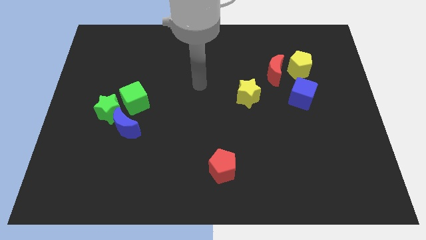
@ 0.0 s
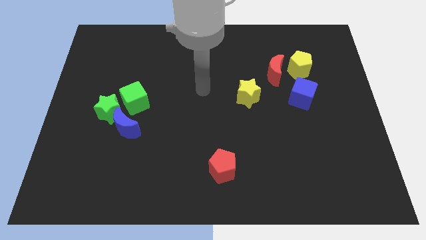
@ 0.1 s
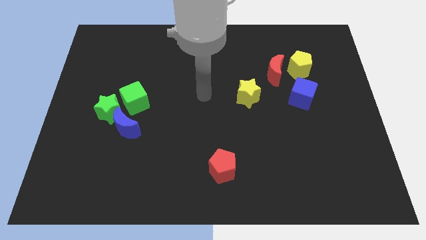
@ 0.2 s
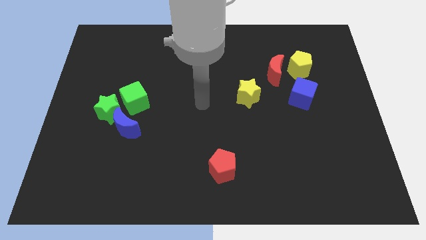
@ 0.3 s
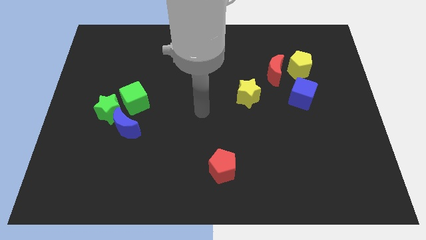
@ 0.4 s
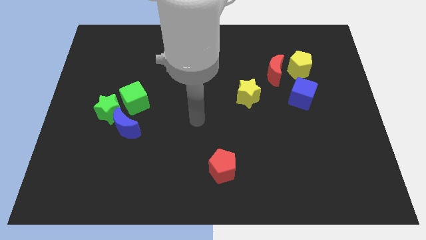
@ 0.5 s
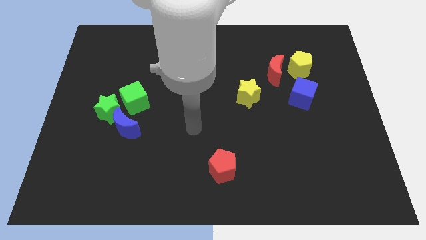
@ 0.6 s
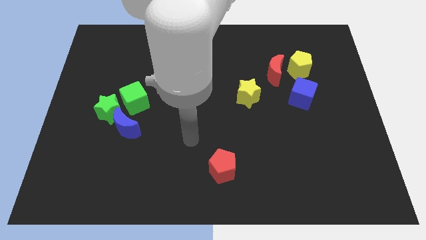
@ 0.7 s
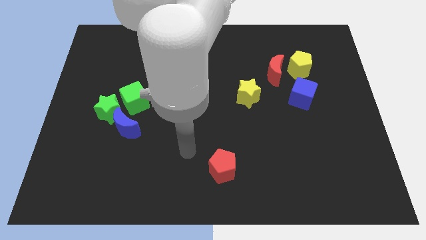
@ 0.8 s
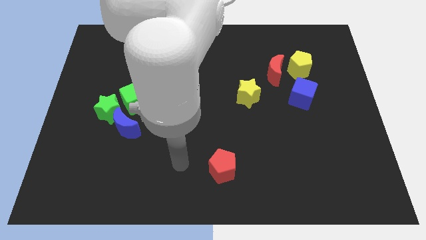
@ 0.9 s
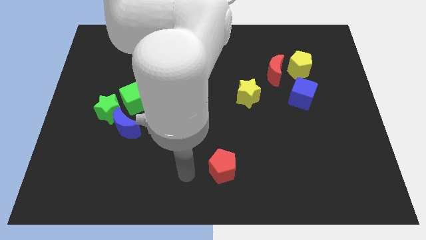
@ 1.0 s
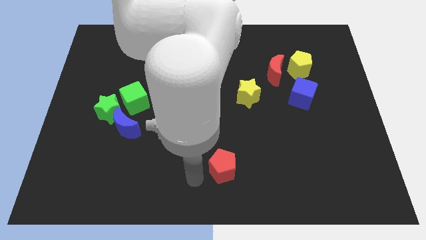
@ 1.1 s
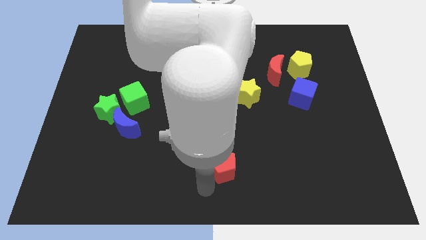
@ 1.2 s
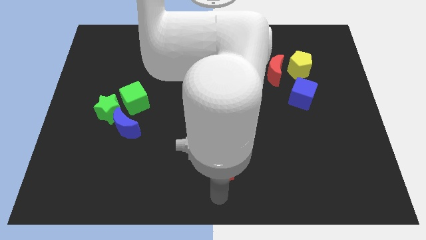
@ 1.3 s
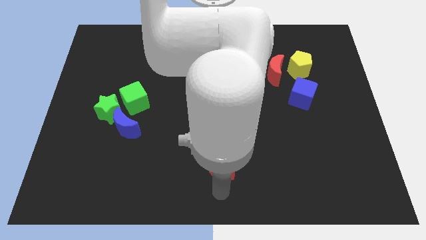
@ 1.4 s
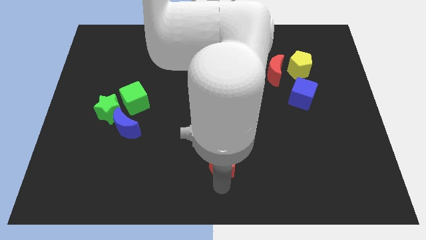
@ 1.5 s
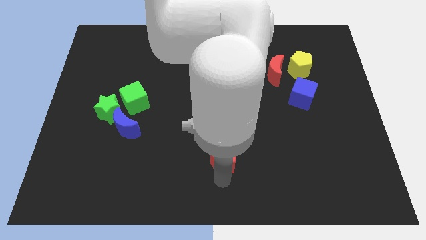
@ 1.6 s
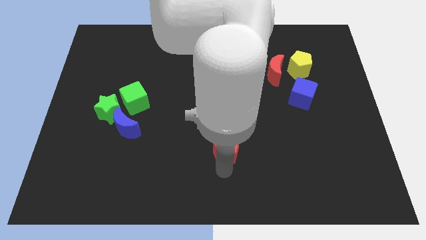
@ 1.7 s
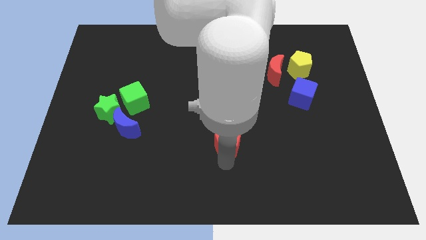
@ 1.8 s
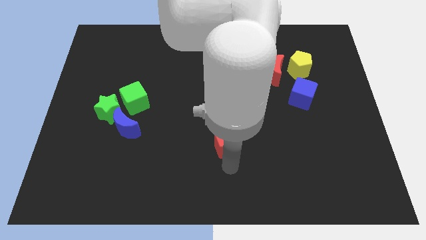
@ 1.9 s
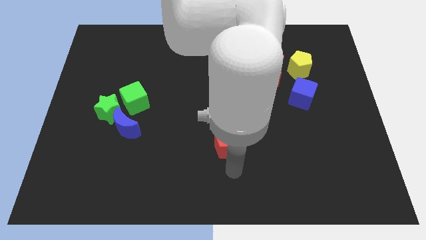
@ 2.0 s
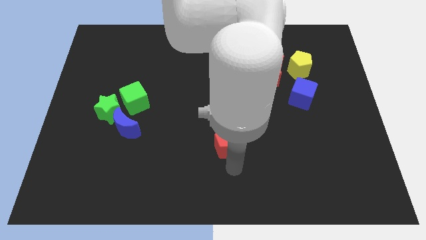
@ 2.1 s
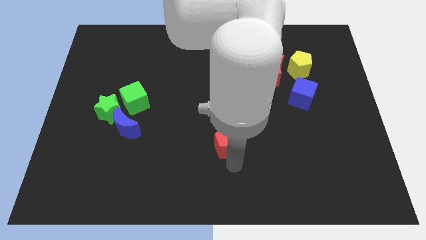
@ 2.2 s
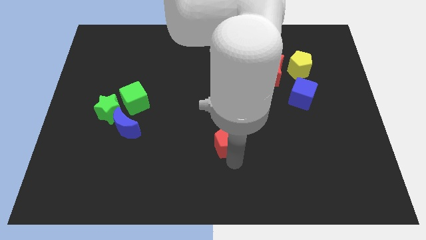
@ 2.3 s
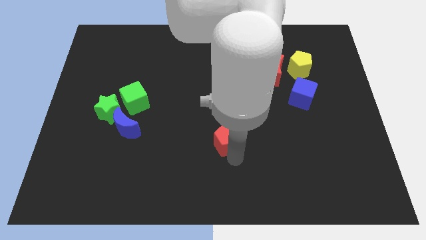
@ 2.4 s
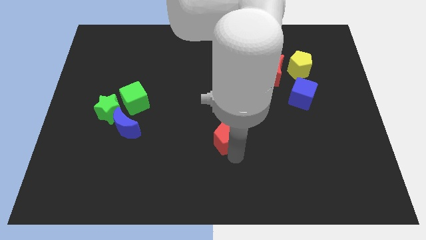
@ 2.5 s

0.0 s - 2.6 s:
slide the red pentagon up a little bit

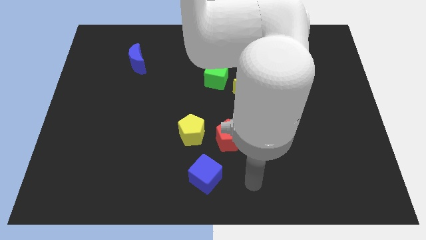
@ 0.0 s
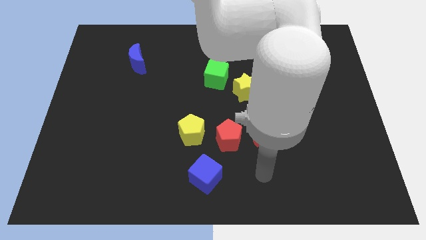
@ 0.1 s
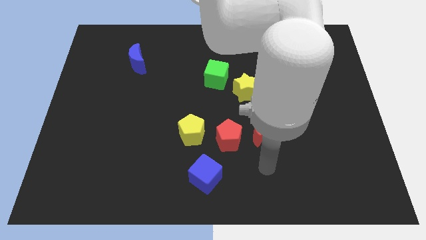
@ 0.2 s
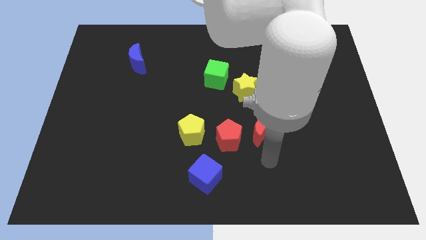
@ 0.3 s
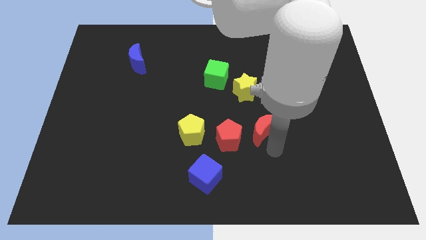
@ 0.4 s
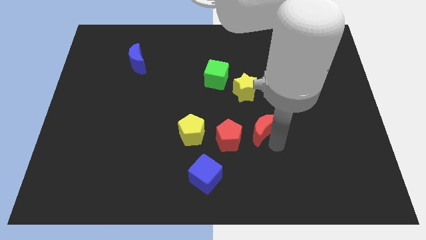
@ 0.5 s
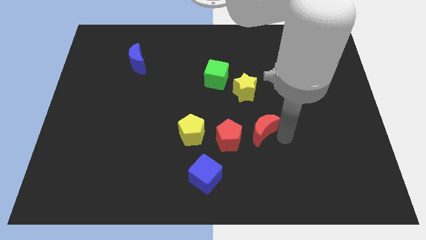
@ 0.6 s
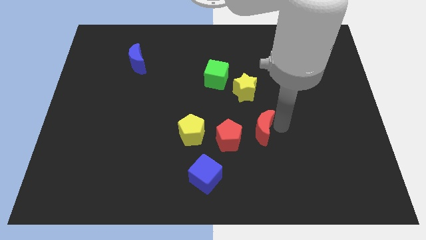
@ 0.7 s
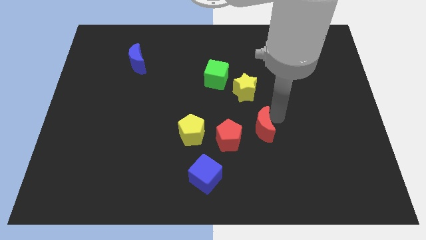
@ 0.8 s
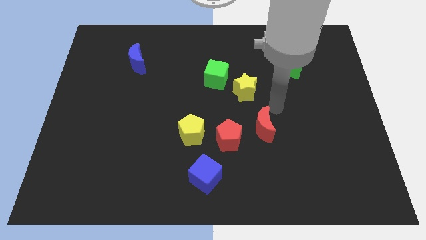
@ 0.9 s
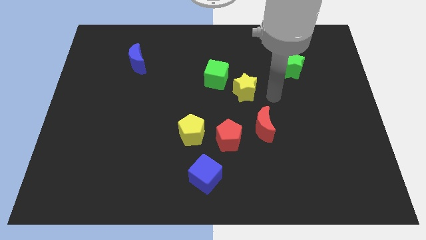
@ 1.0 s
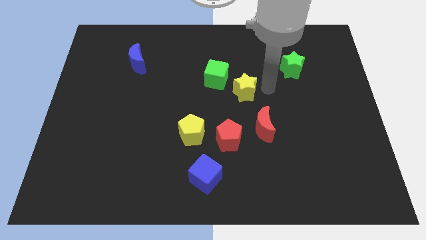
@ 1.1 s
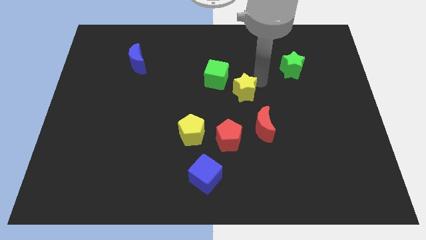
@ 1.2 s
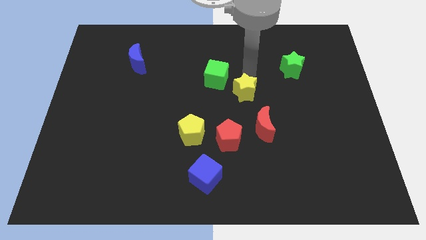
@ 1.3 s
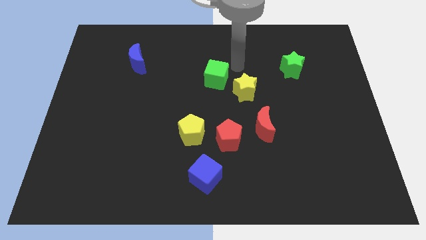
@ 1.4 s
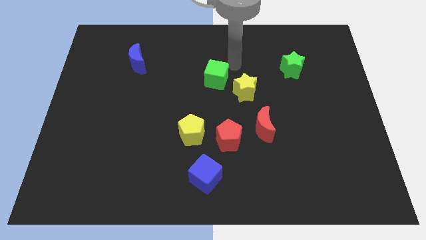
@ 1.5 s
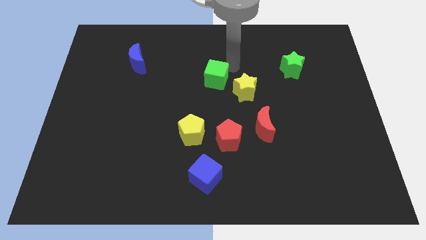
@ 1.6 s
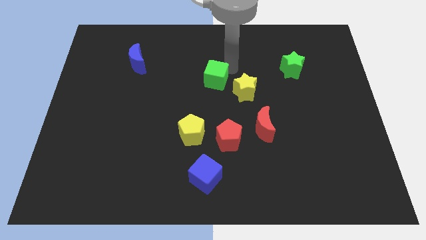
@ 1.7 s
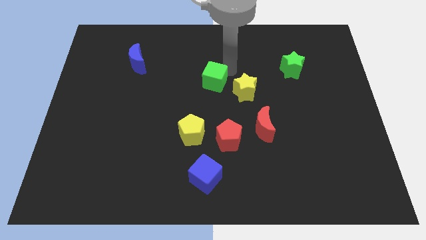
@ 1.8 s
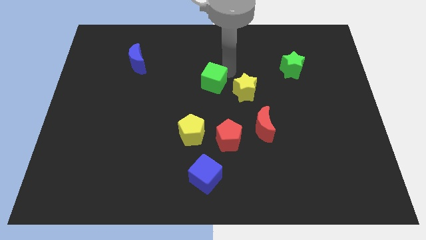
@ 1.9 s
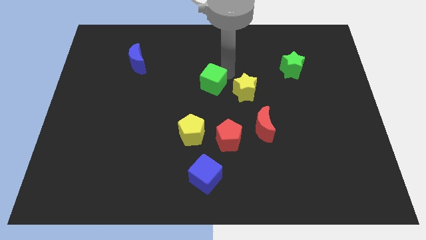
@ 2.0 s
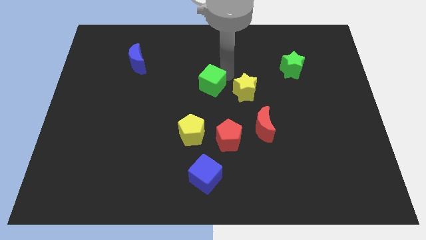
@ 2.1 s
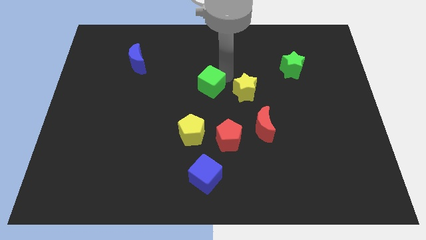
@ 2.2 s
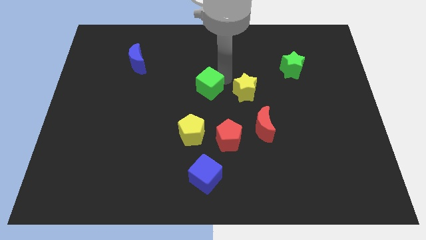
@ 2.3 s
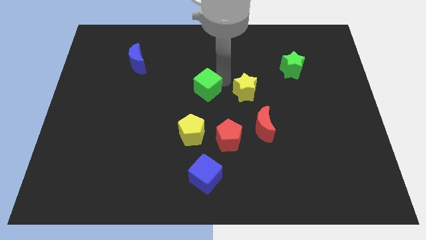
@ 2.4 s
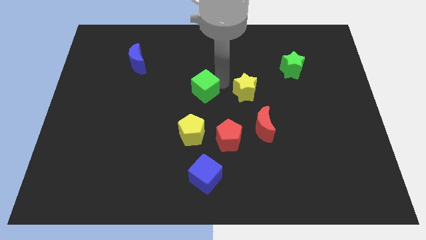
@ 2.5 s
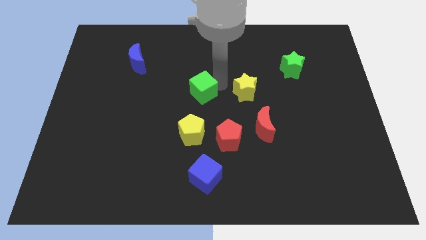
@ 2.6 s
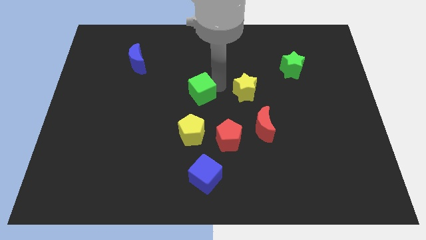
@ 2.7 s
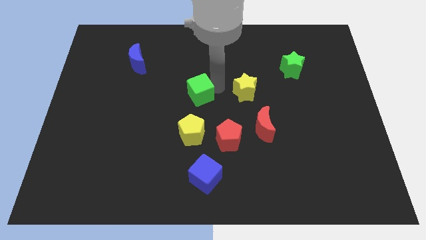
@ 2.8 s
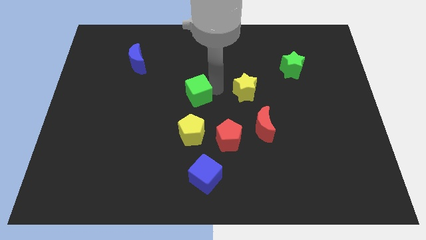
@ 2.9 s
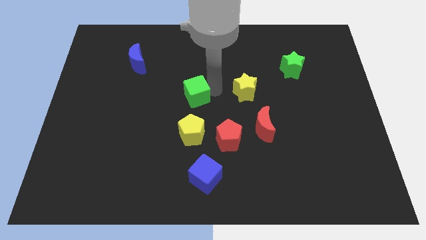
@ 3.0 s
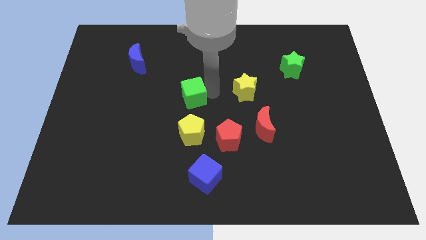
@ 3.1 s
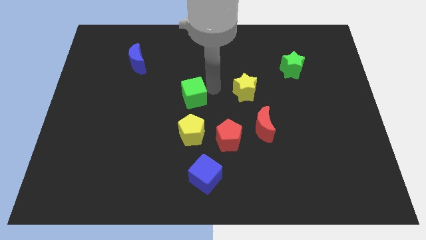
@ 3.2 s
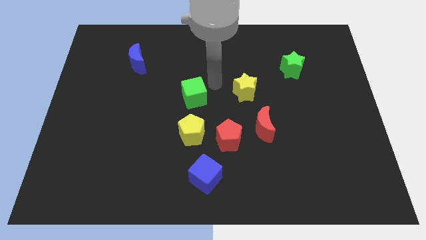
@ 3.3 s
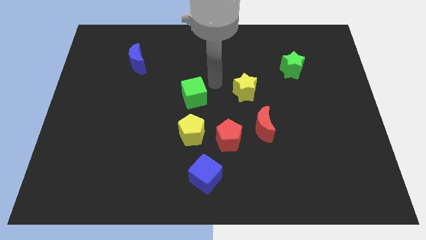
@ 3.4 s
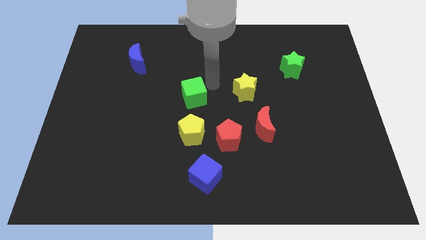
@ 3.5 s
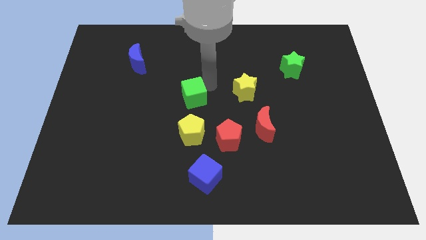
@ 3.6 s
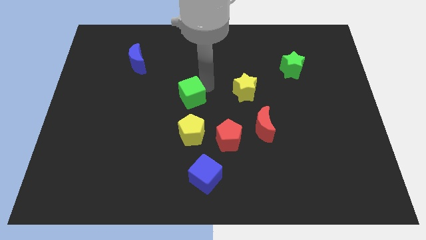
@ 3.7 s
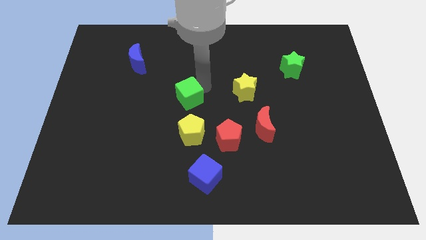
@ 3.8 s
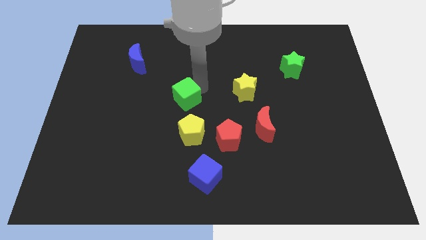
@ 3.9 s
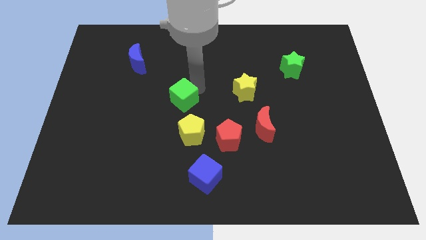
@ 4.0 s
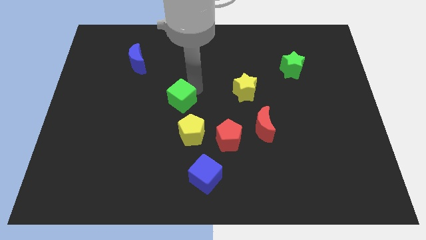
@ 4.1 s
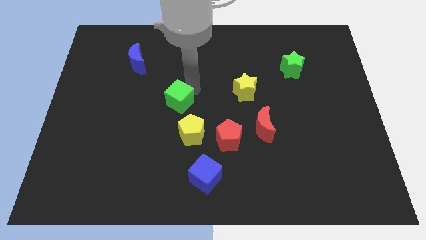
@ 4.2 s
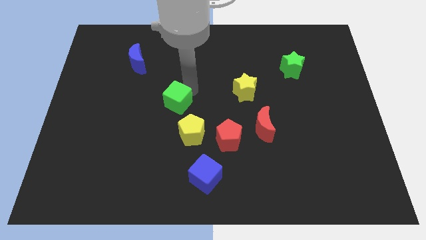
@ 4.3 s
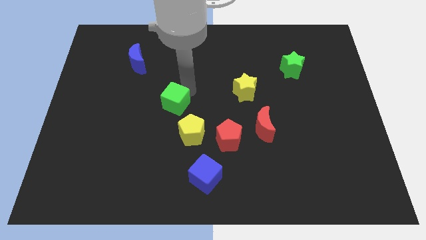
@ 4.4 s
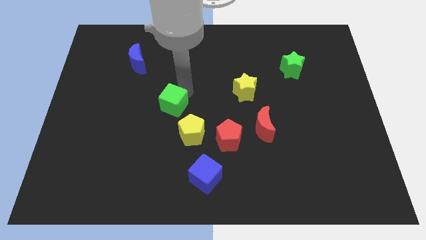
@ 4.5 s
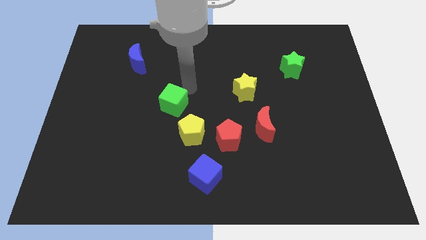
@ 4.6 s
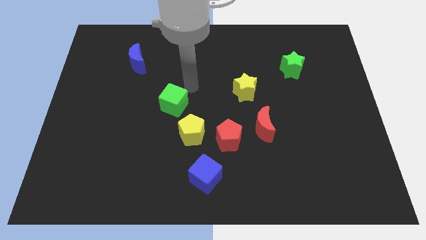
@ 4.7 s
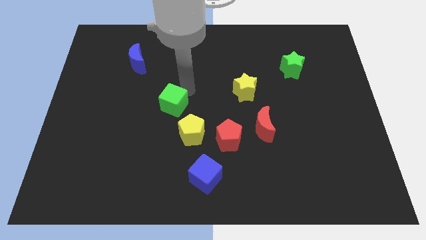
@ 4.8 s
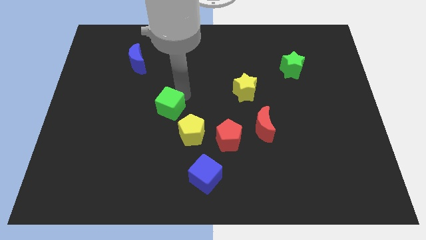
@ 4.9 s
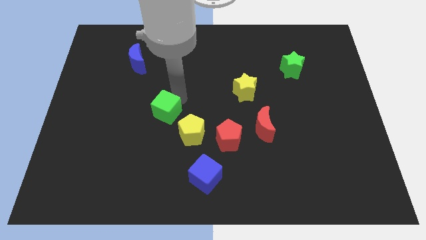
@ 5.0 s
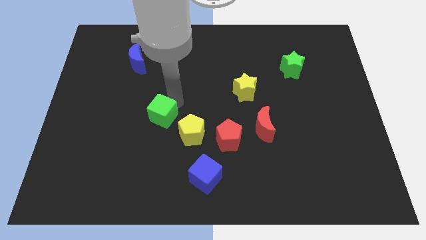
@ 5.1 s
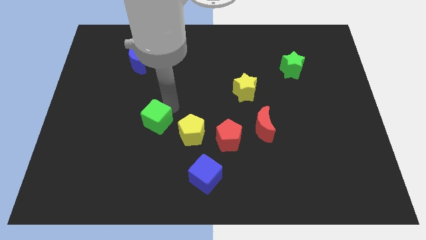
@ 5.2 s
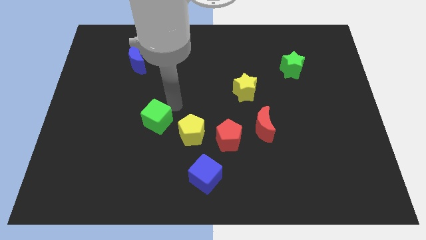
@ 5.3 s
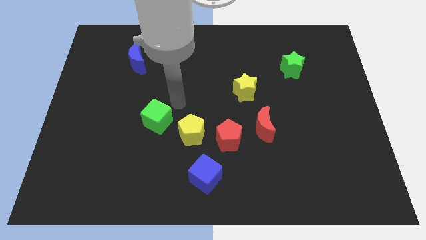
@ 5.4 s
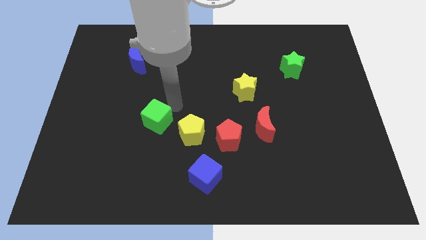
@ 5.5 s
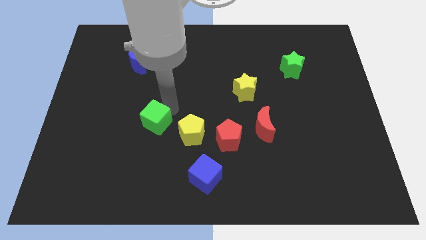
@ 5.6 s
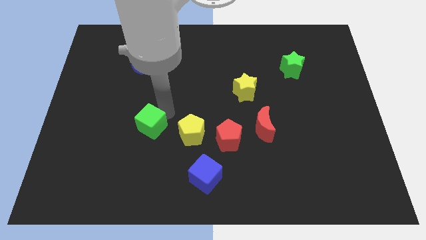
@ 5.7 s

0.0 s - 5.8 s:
push the green cube diagonally down and to the left
